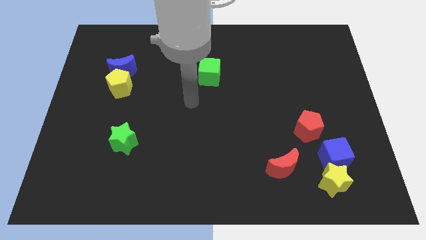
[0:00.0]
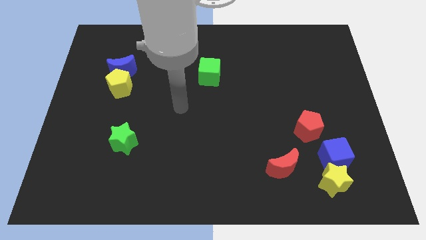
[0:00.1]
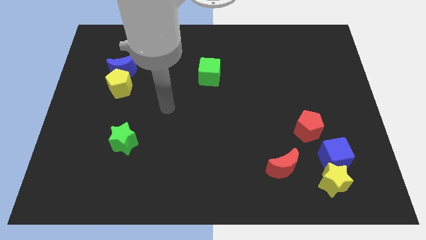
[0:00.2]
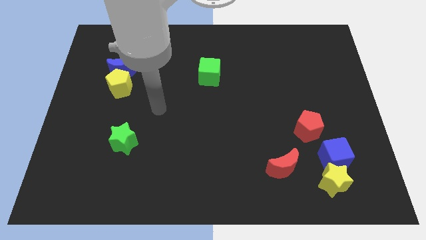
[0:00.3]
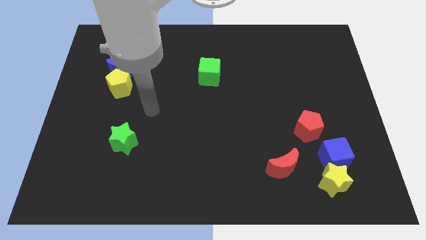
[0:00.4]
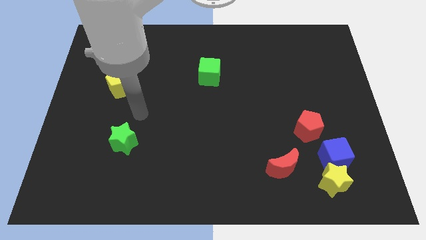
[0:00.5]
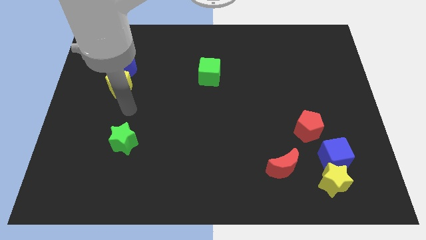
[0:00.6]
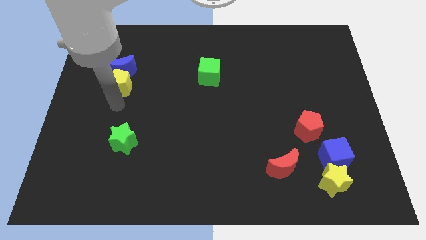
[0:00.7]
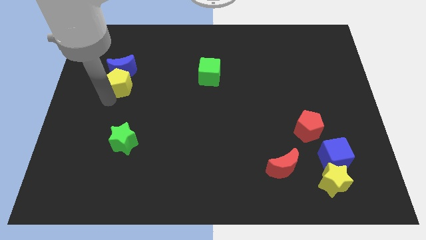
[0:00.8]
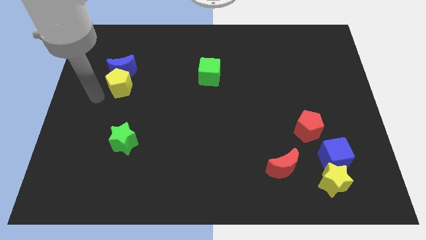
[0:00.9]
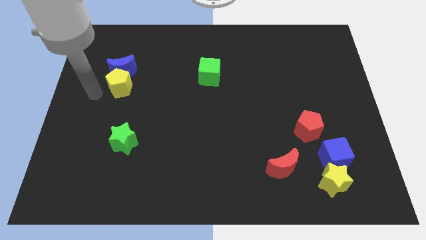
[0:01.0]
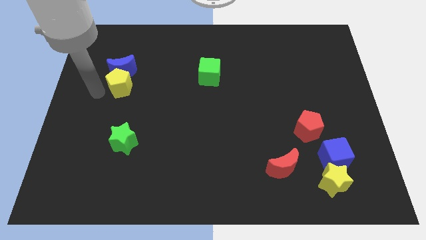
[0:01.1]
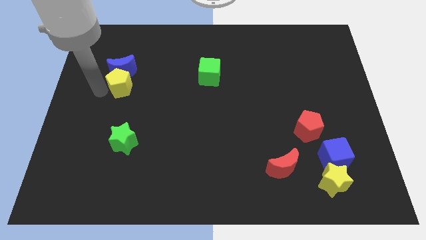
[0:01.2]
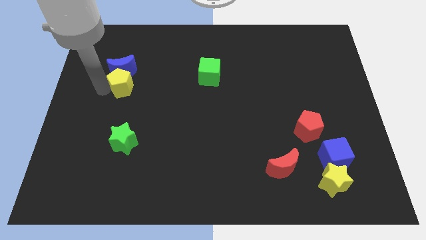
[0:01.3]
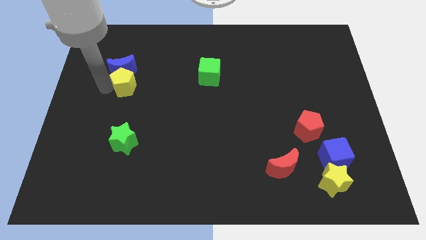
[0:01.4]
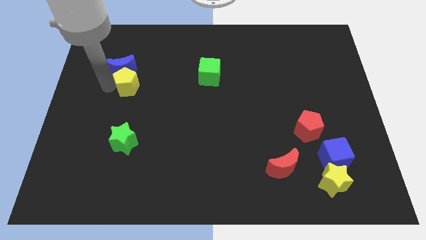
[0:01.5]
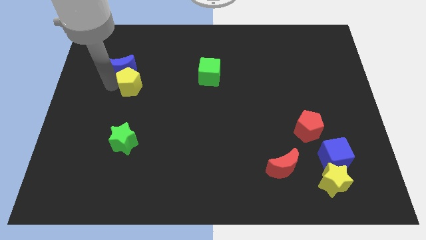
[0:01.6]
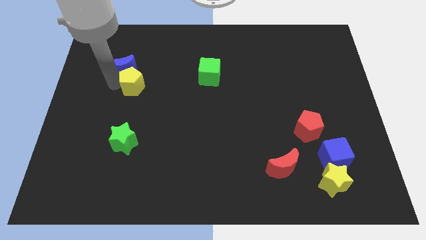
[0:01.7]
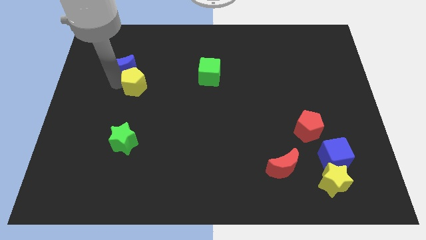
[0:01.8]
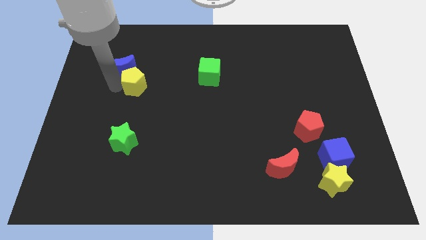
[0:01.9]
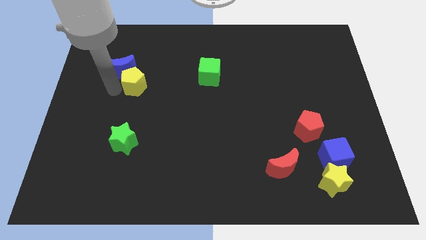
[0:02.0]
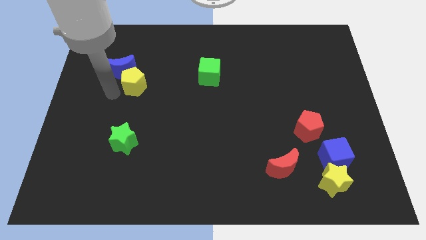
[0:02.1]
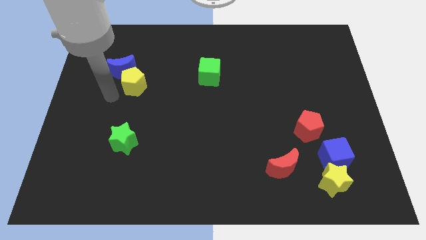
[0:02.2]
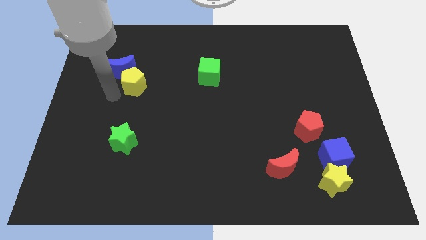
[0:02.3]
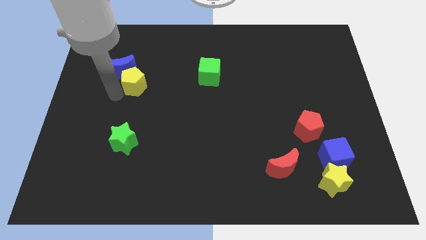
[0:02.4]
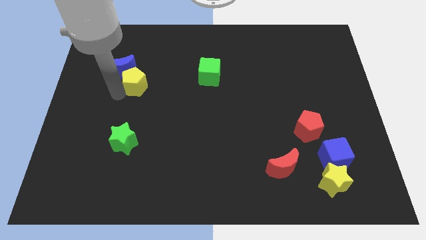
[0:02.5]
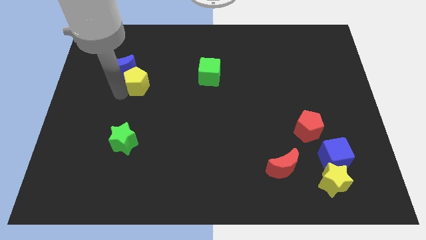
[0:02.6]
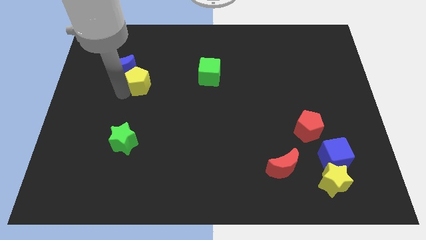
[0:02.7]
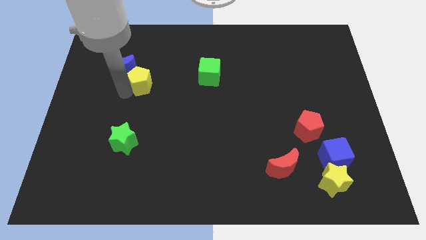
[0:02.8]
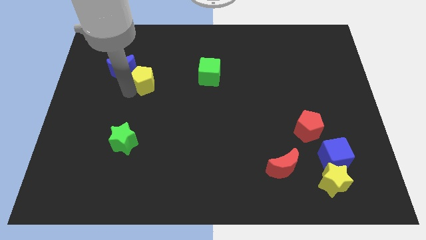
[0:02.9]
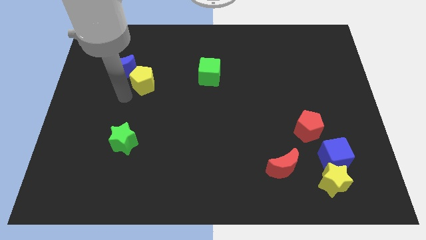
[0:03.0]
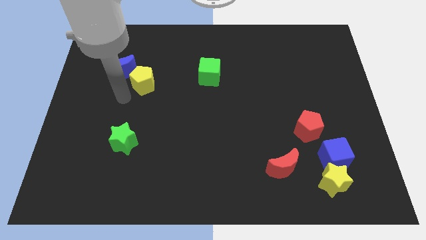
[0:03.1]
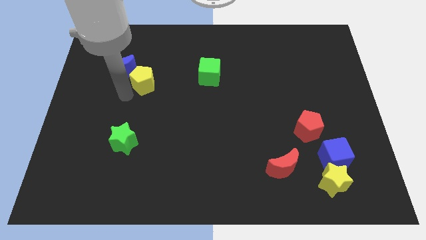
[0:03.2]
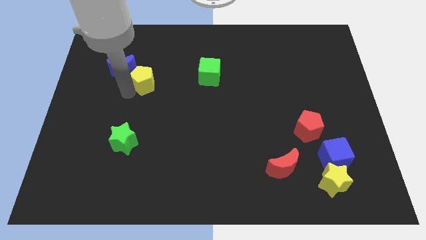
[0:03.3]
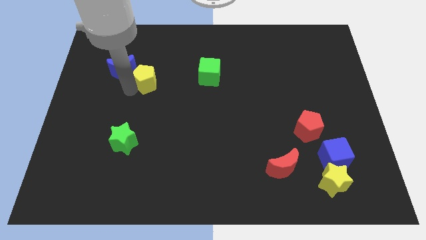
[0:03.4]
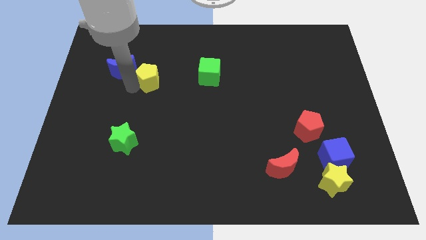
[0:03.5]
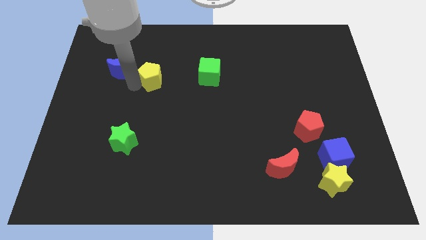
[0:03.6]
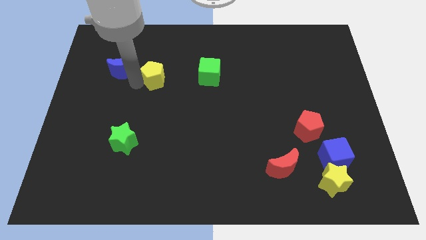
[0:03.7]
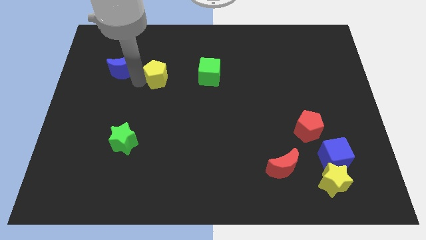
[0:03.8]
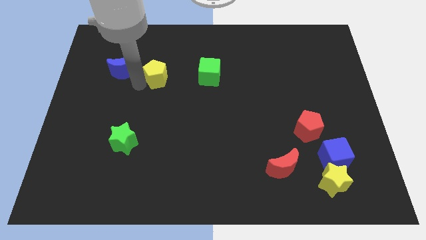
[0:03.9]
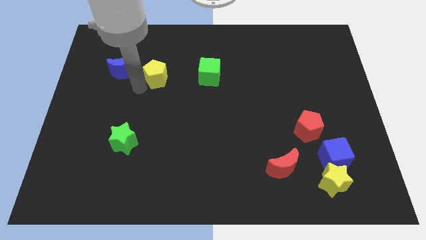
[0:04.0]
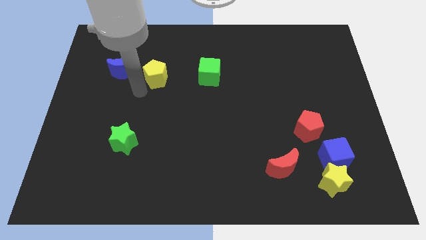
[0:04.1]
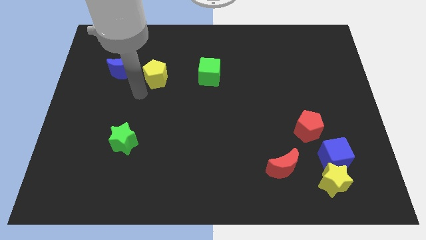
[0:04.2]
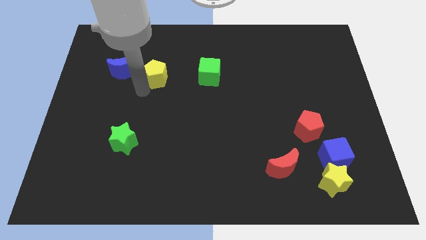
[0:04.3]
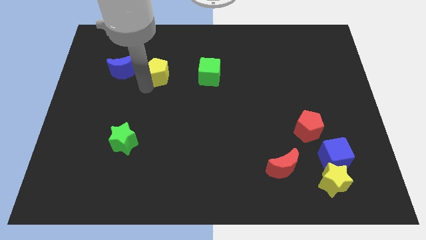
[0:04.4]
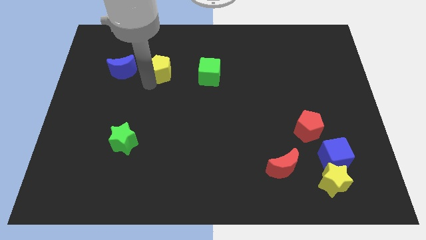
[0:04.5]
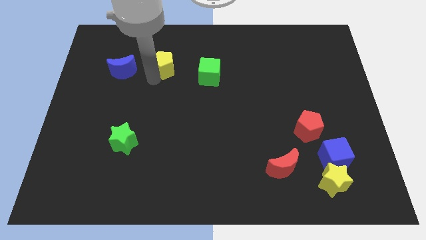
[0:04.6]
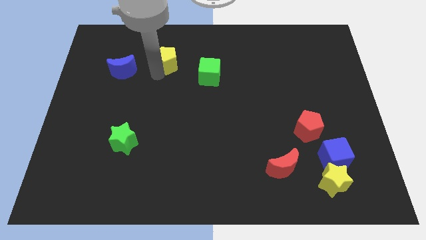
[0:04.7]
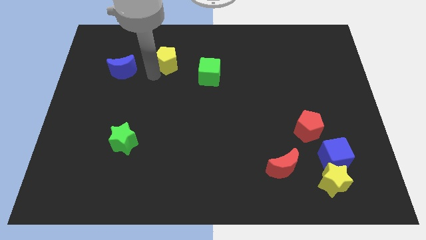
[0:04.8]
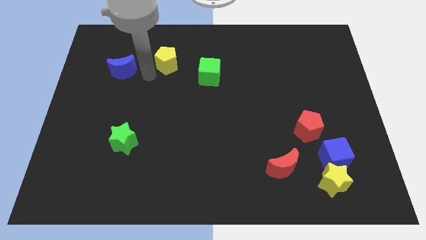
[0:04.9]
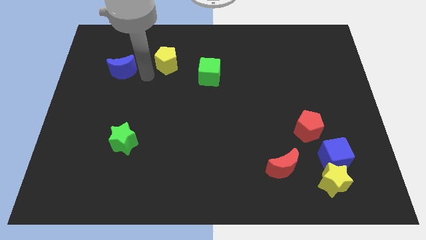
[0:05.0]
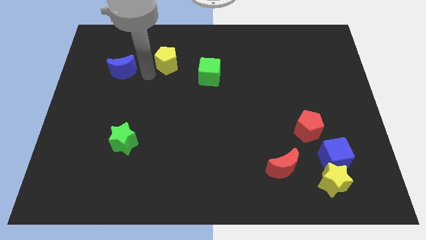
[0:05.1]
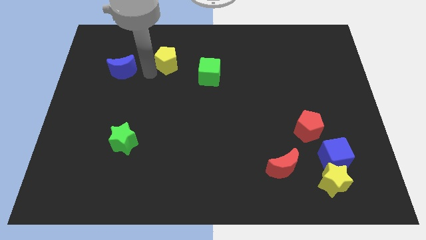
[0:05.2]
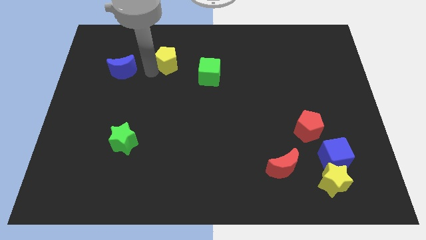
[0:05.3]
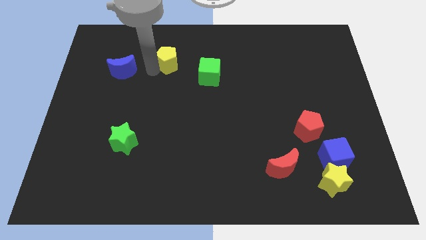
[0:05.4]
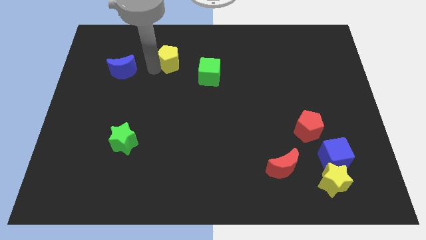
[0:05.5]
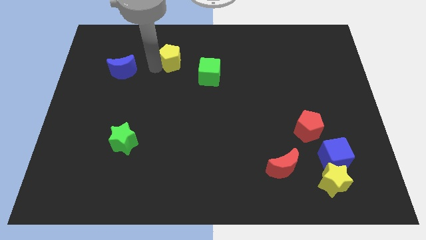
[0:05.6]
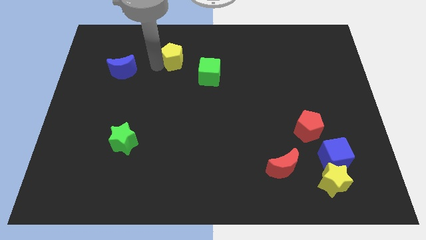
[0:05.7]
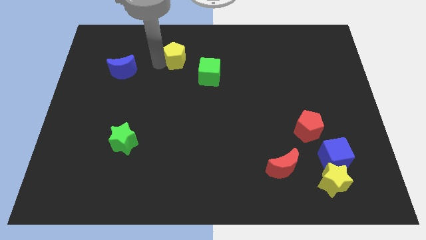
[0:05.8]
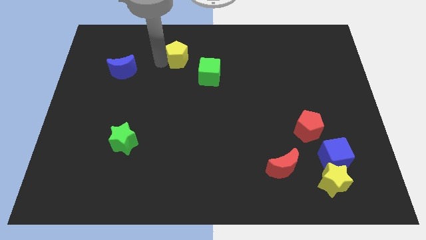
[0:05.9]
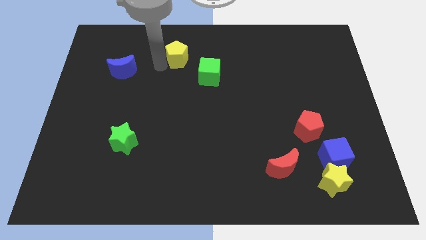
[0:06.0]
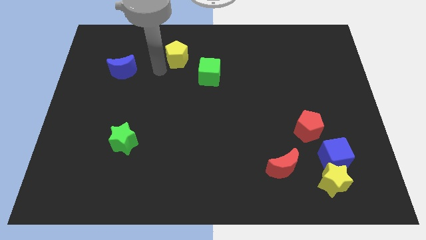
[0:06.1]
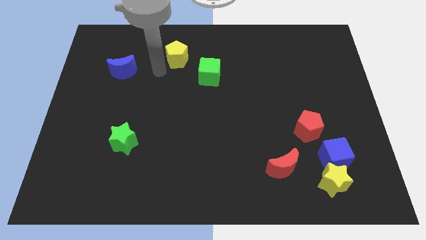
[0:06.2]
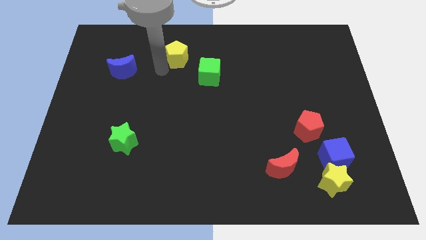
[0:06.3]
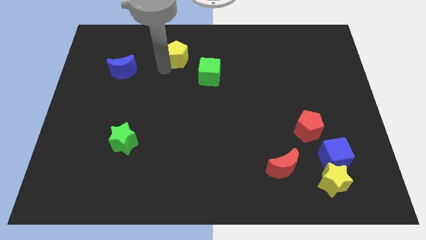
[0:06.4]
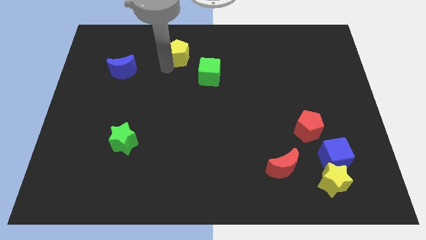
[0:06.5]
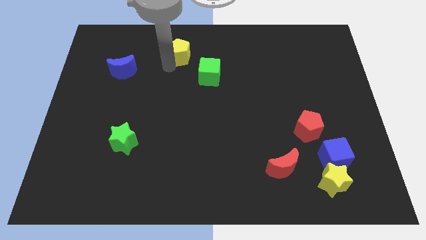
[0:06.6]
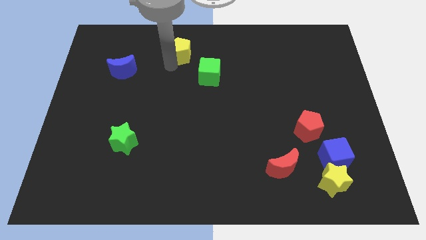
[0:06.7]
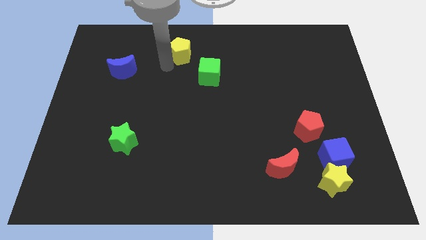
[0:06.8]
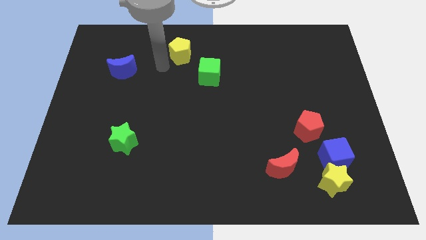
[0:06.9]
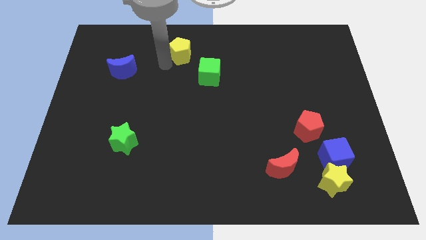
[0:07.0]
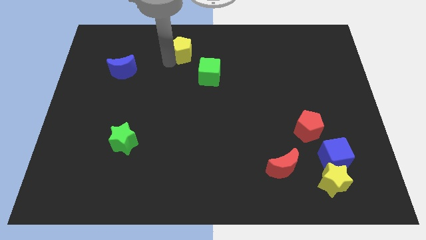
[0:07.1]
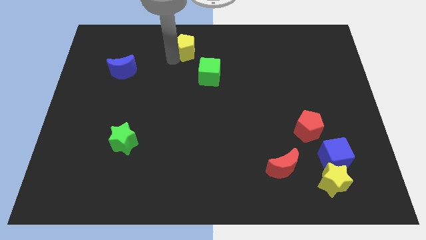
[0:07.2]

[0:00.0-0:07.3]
put the yellow pentagon to the top
